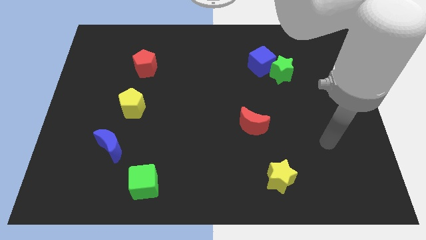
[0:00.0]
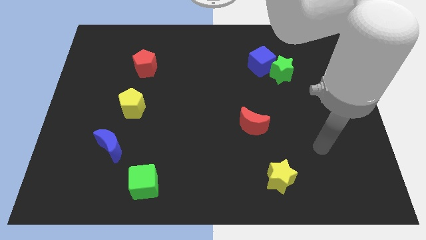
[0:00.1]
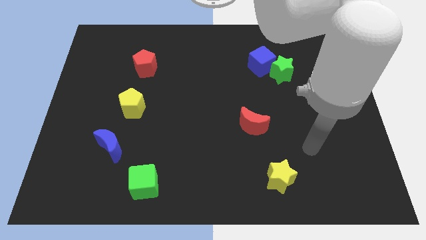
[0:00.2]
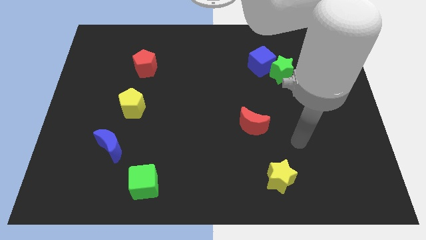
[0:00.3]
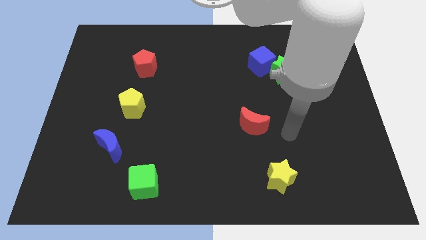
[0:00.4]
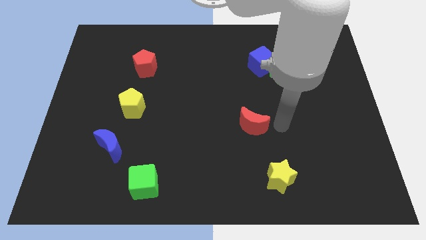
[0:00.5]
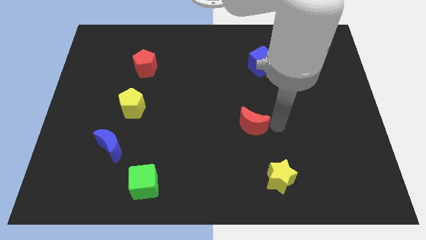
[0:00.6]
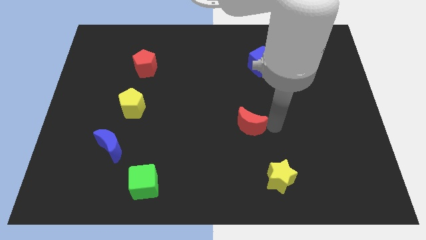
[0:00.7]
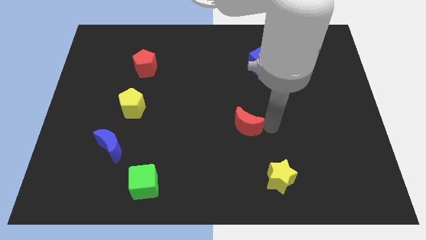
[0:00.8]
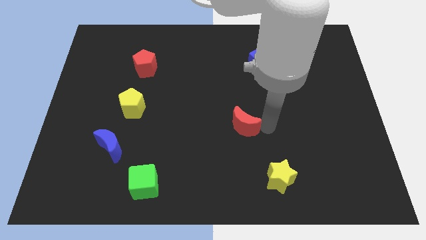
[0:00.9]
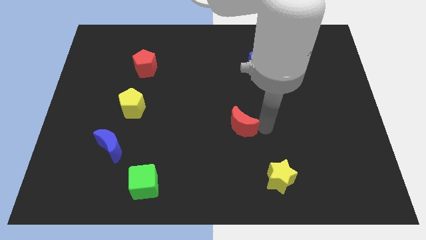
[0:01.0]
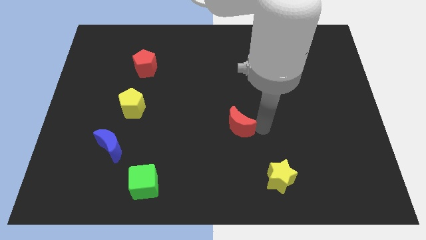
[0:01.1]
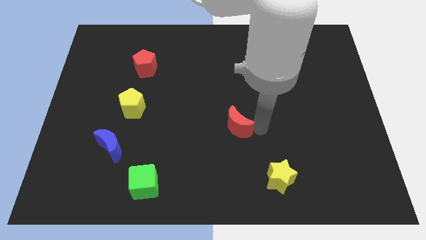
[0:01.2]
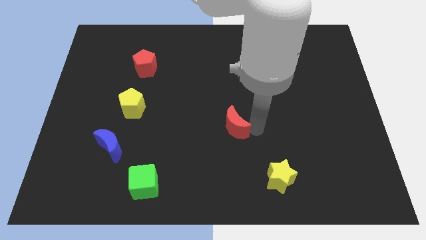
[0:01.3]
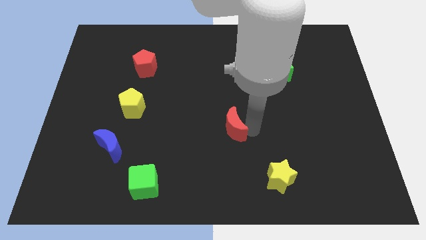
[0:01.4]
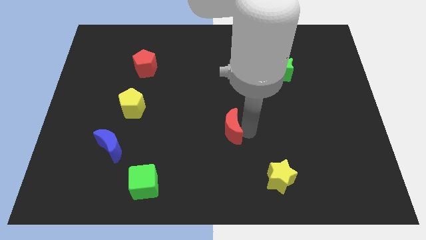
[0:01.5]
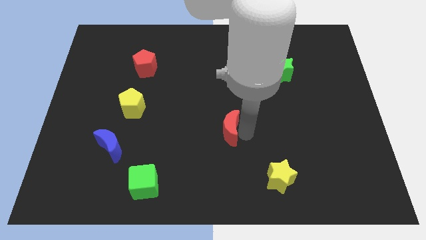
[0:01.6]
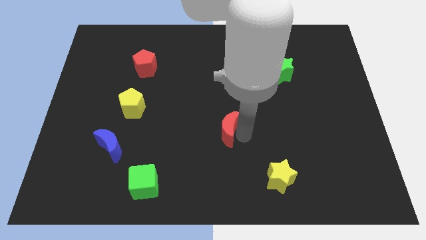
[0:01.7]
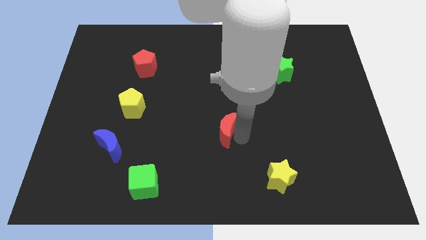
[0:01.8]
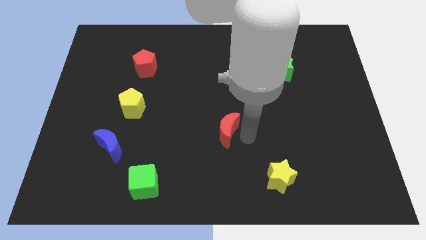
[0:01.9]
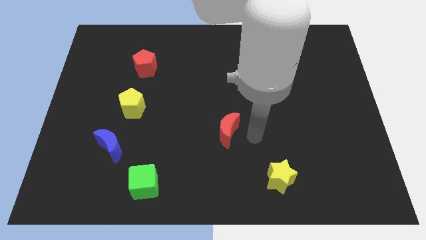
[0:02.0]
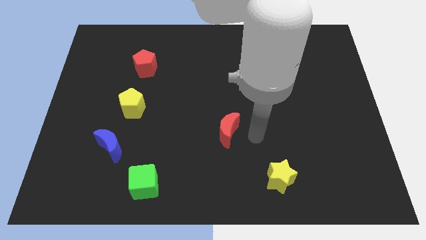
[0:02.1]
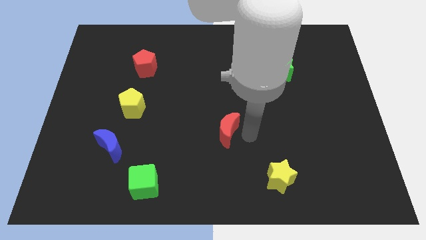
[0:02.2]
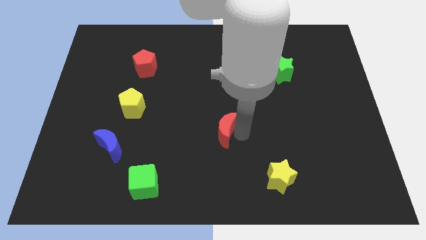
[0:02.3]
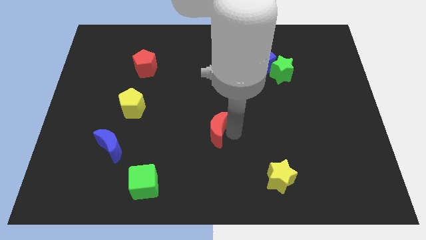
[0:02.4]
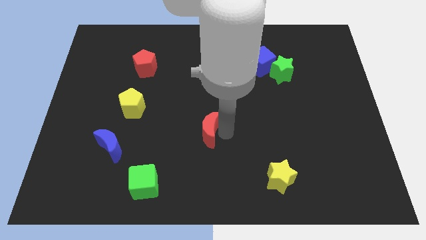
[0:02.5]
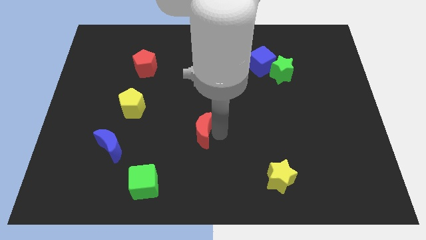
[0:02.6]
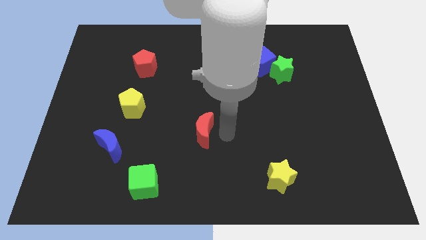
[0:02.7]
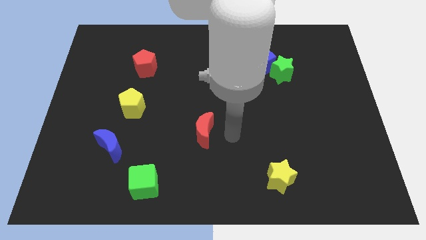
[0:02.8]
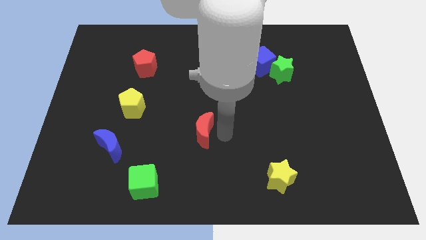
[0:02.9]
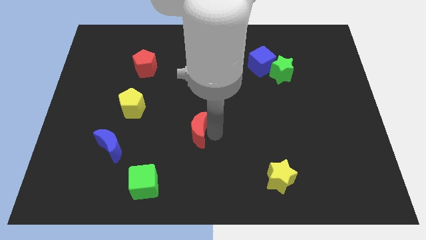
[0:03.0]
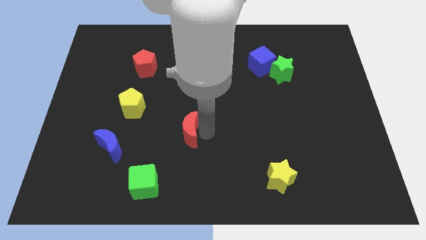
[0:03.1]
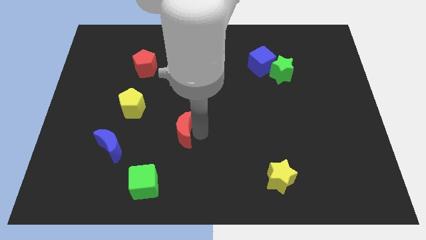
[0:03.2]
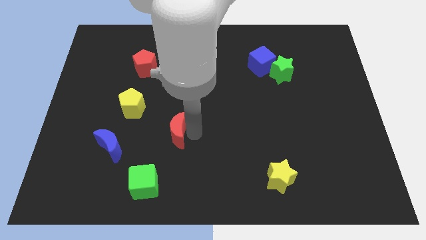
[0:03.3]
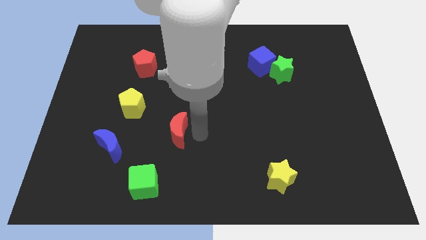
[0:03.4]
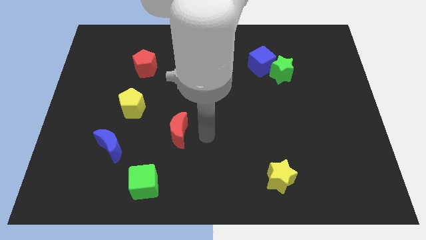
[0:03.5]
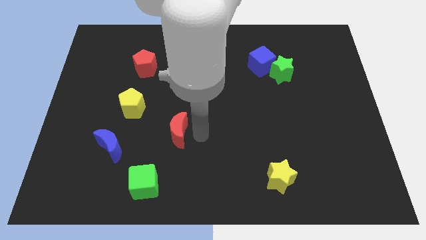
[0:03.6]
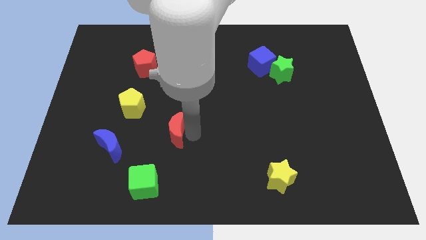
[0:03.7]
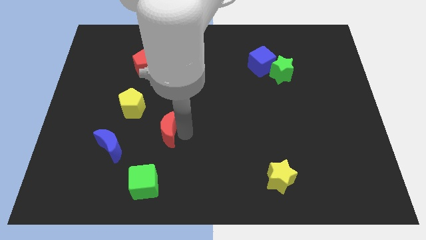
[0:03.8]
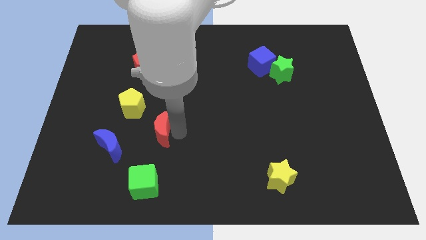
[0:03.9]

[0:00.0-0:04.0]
move the red moon to the left

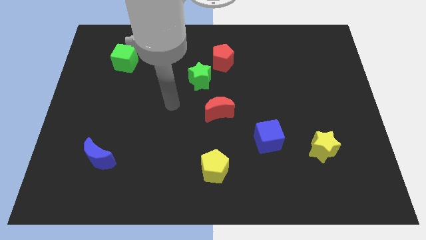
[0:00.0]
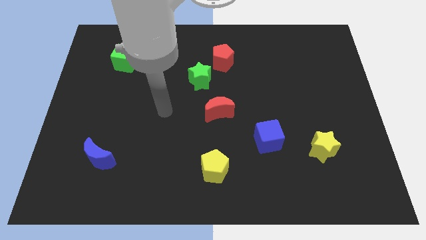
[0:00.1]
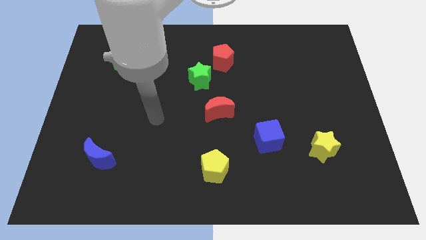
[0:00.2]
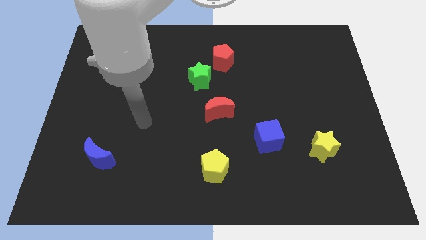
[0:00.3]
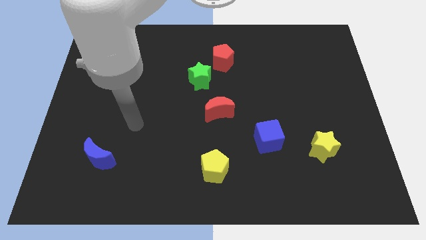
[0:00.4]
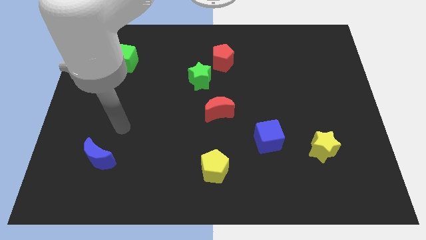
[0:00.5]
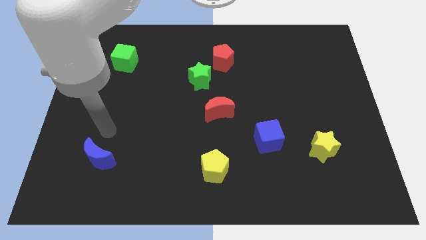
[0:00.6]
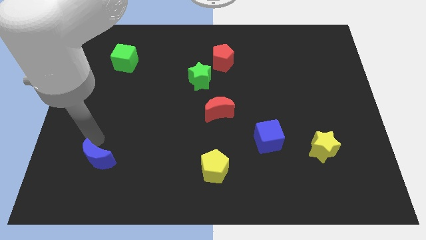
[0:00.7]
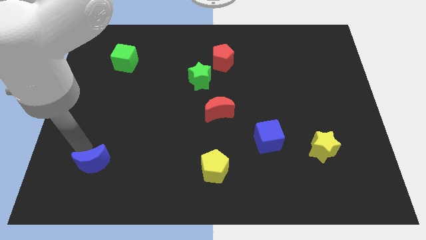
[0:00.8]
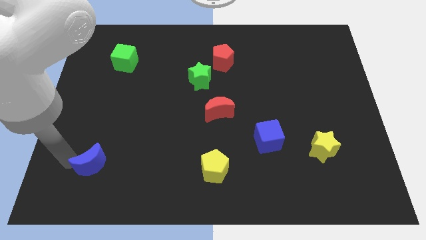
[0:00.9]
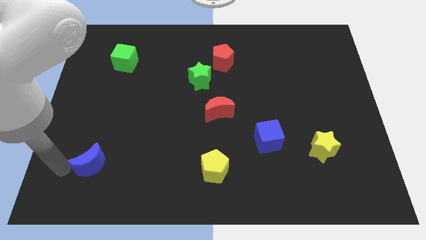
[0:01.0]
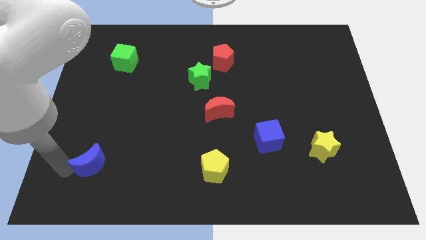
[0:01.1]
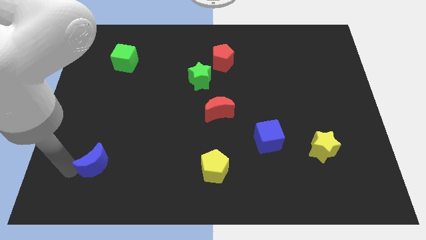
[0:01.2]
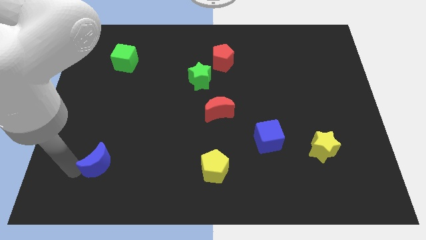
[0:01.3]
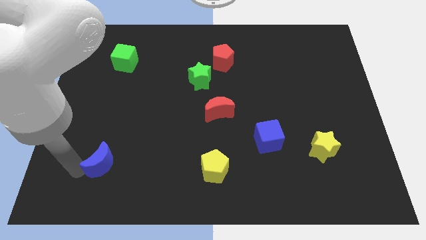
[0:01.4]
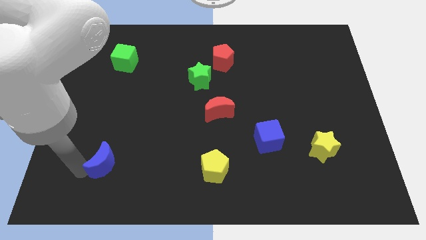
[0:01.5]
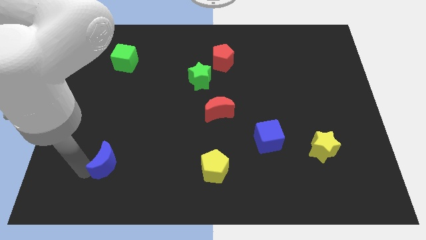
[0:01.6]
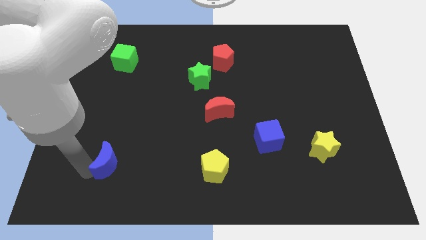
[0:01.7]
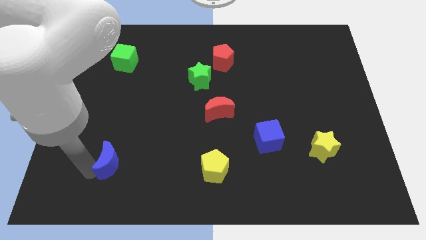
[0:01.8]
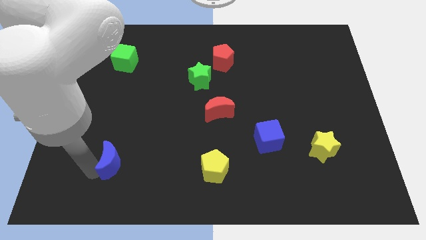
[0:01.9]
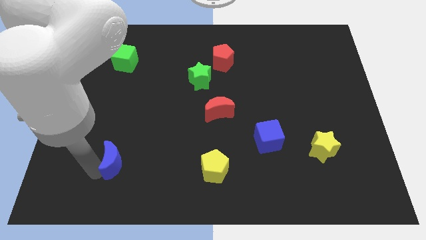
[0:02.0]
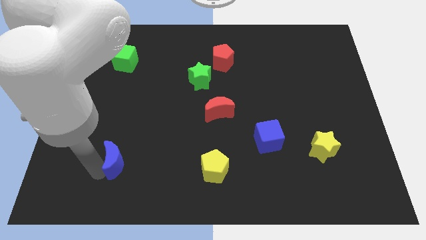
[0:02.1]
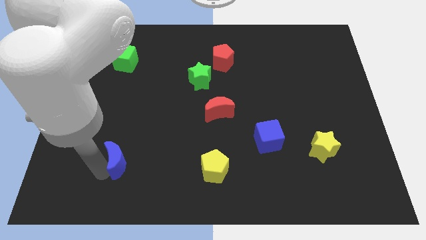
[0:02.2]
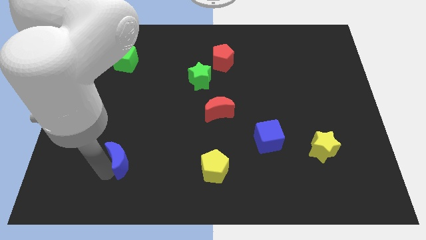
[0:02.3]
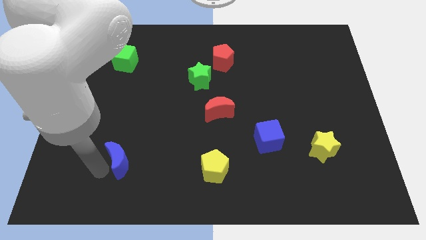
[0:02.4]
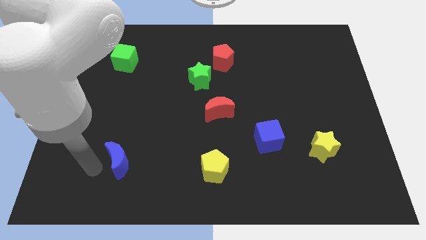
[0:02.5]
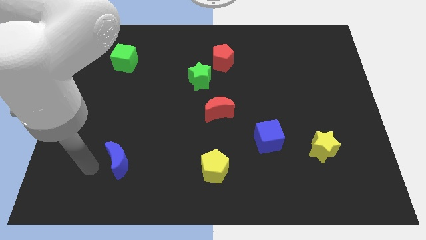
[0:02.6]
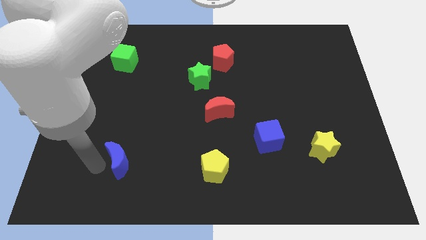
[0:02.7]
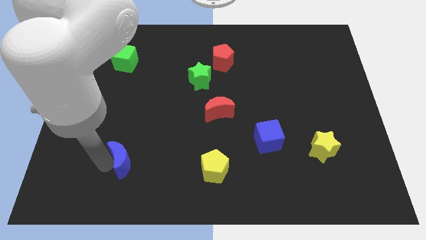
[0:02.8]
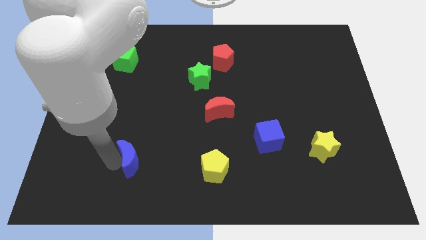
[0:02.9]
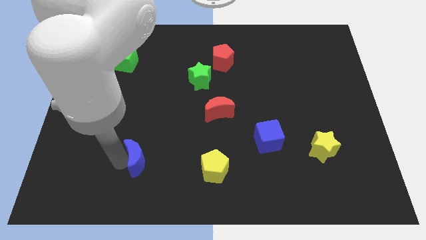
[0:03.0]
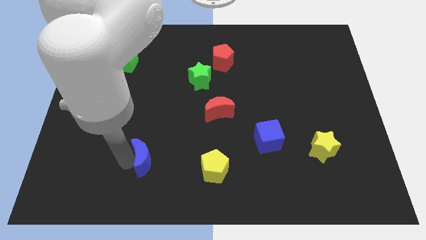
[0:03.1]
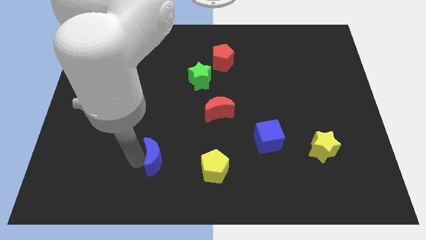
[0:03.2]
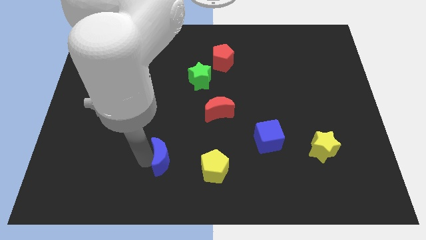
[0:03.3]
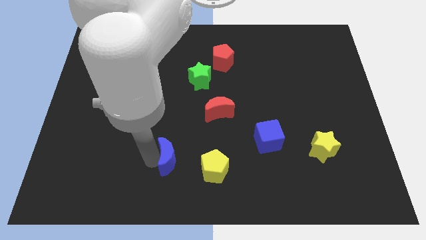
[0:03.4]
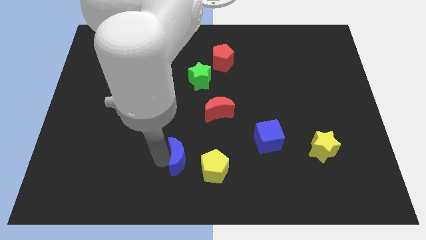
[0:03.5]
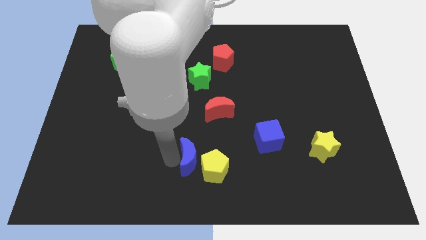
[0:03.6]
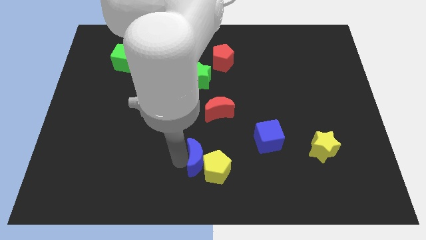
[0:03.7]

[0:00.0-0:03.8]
slide the blue moon right

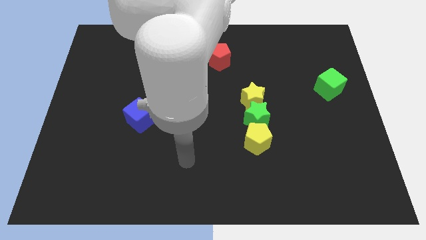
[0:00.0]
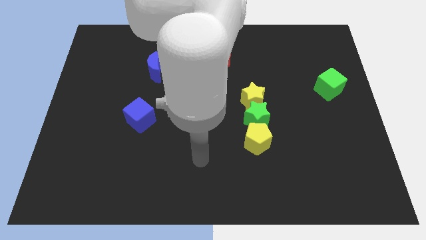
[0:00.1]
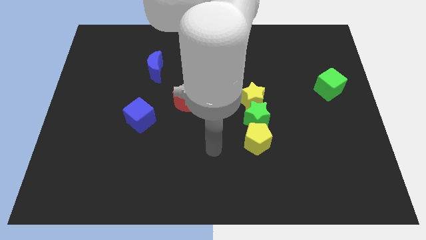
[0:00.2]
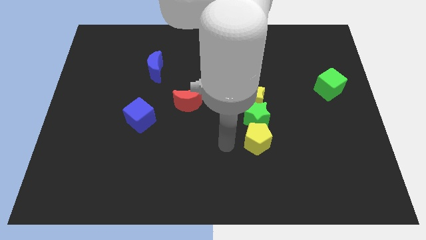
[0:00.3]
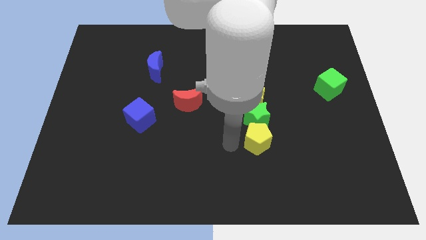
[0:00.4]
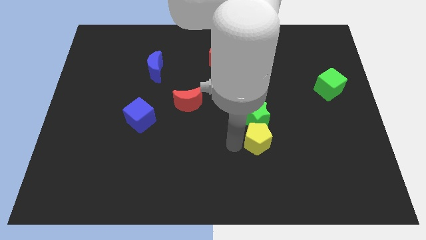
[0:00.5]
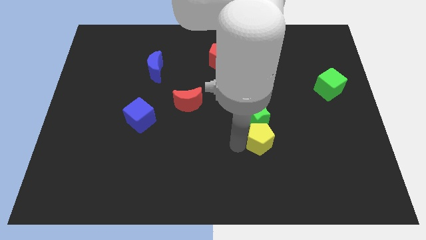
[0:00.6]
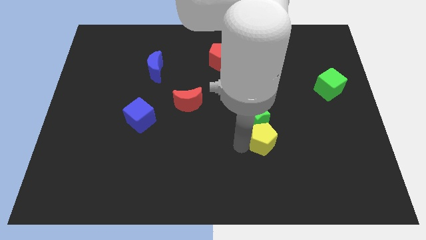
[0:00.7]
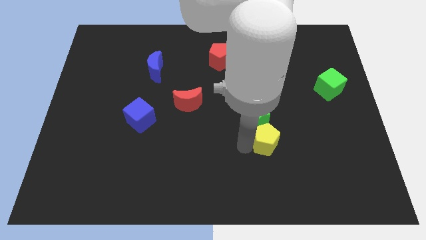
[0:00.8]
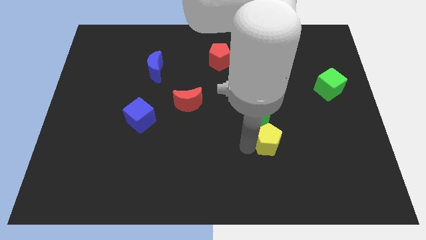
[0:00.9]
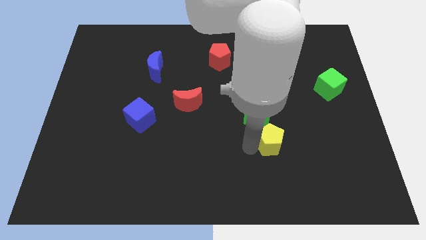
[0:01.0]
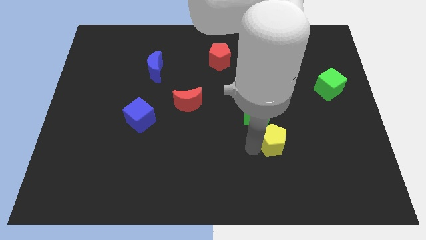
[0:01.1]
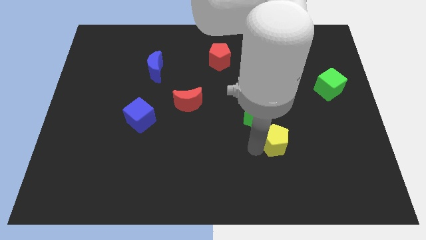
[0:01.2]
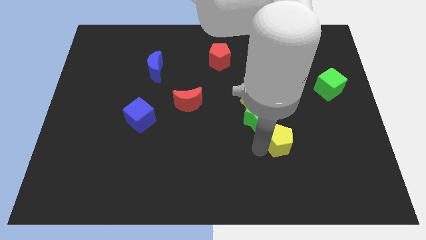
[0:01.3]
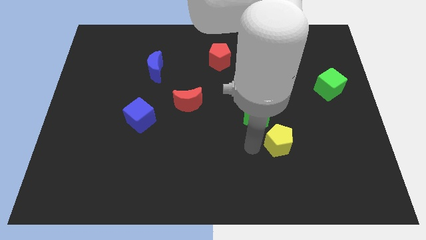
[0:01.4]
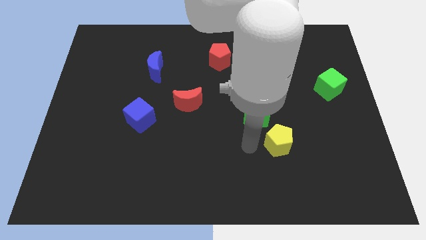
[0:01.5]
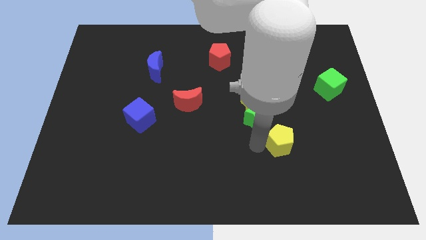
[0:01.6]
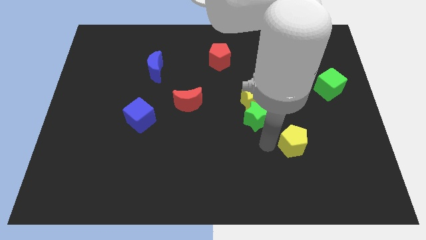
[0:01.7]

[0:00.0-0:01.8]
slightly slide the yellow pentagon right
